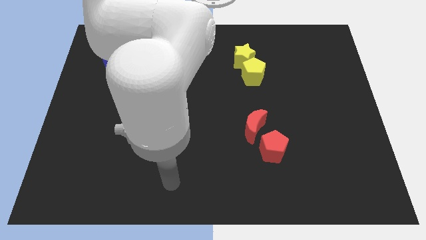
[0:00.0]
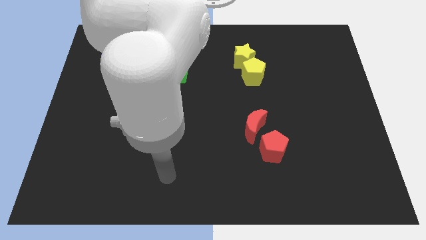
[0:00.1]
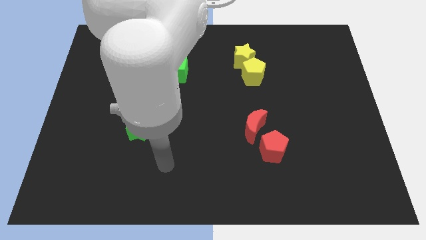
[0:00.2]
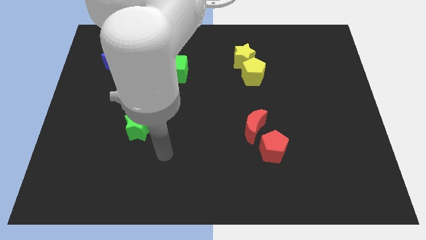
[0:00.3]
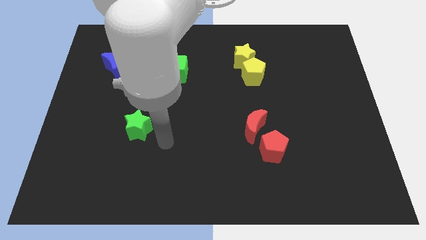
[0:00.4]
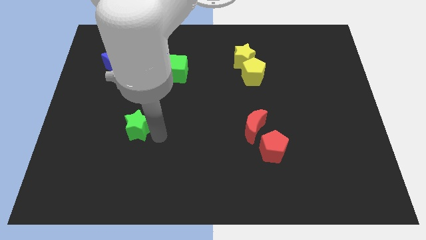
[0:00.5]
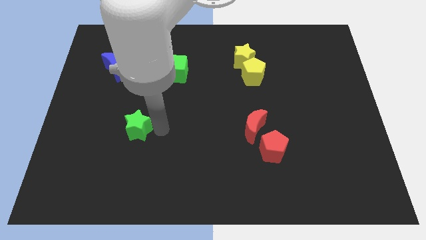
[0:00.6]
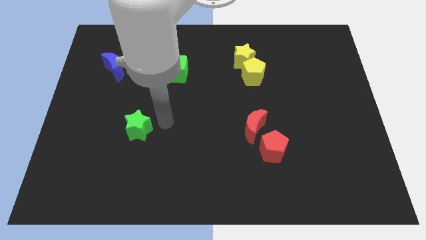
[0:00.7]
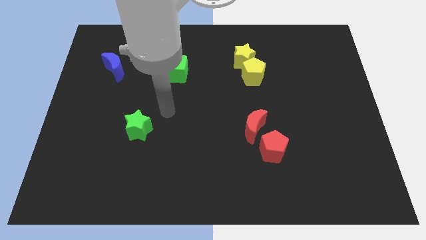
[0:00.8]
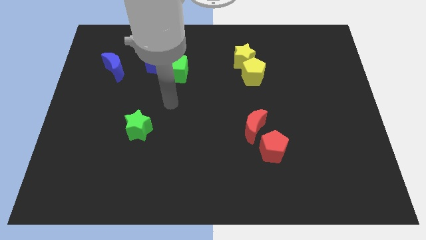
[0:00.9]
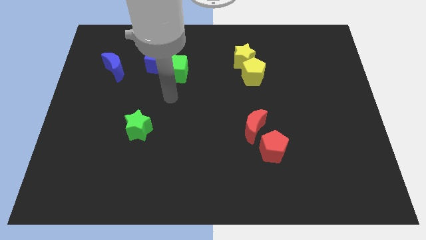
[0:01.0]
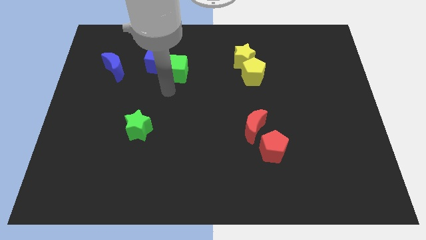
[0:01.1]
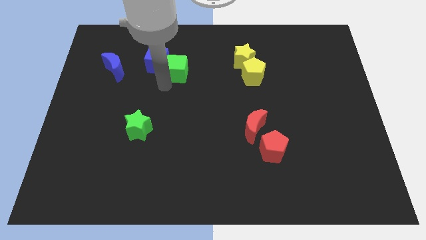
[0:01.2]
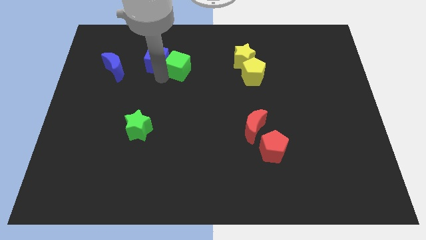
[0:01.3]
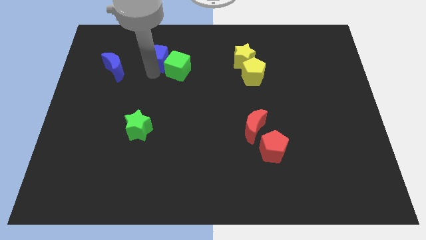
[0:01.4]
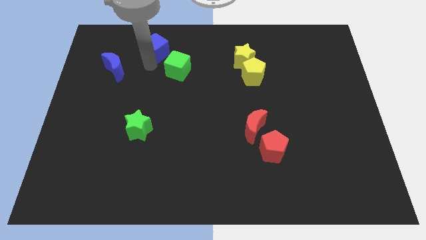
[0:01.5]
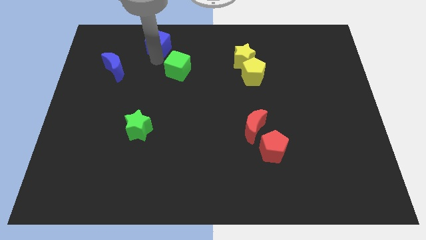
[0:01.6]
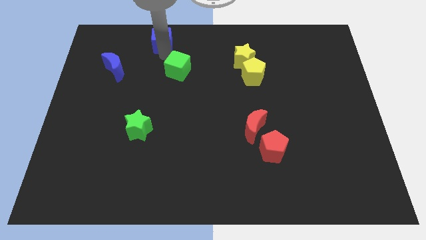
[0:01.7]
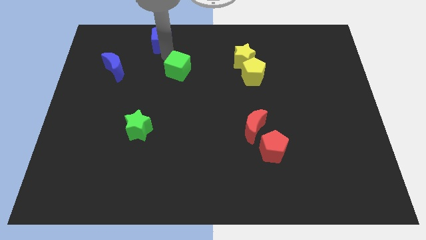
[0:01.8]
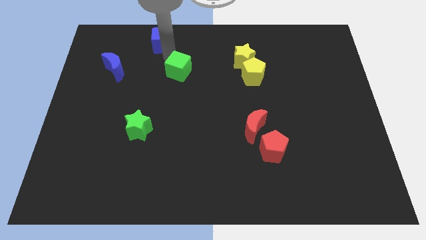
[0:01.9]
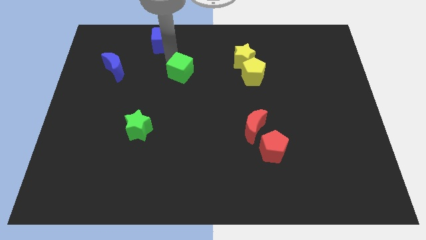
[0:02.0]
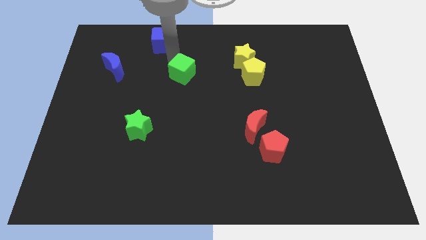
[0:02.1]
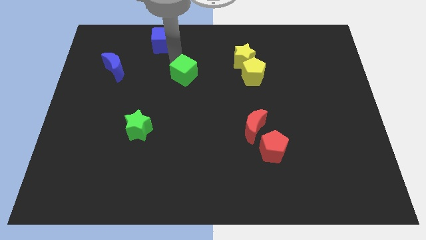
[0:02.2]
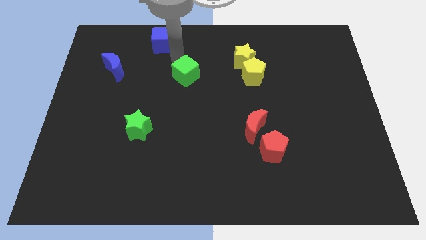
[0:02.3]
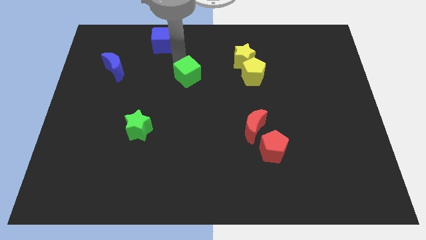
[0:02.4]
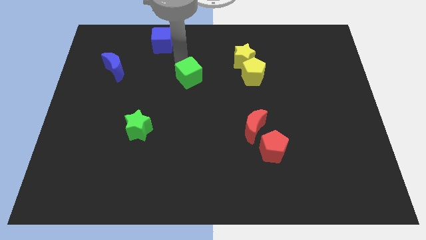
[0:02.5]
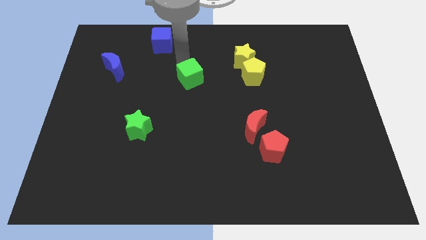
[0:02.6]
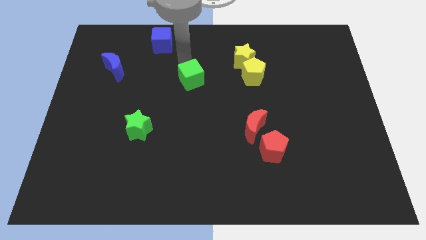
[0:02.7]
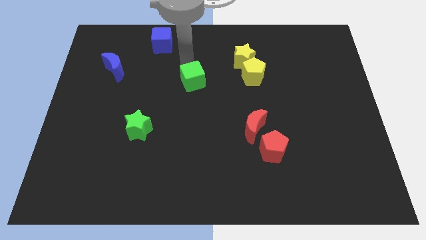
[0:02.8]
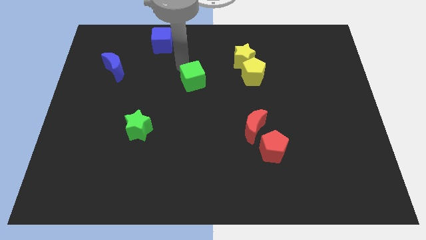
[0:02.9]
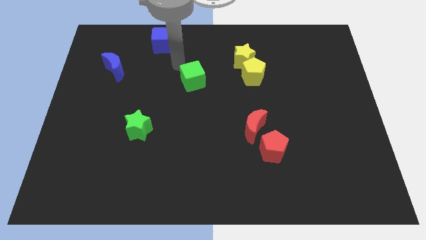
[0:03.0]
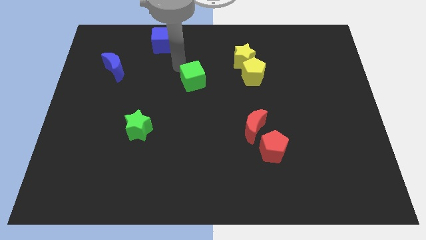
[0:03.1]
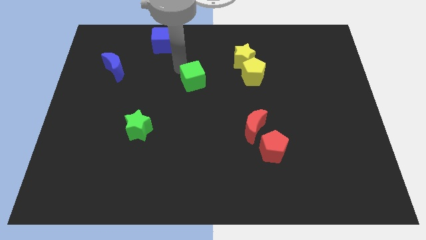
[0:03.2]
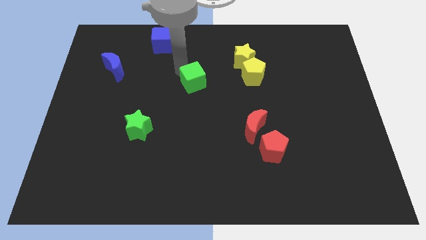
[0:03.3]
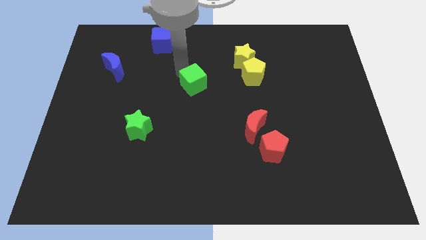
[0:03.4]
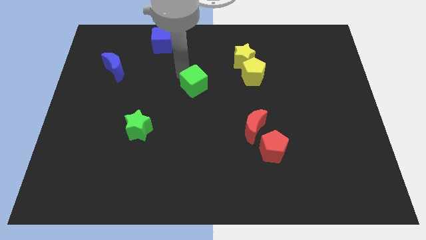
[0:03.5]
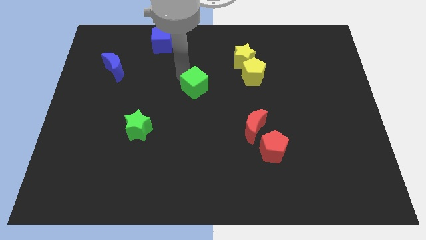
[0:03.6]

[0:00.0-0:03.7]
slightly move the green cube down and to the right

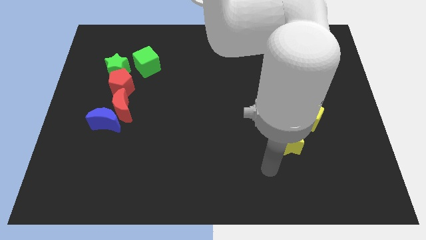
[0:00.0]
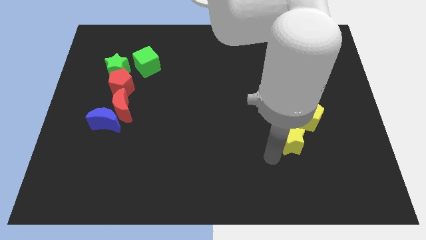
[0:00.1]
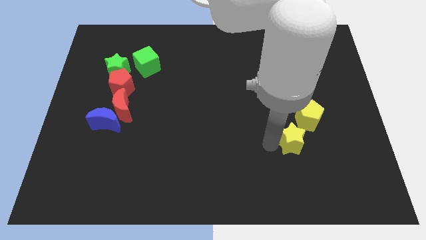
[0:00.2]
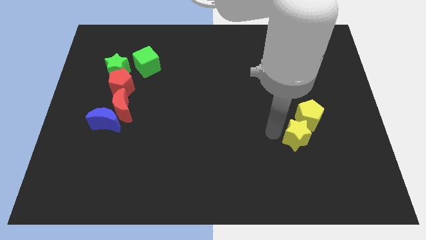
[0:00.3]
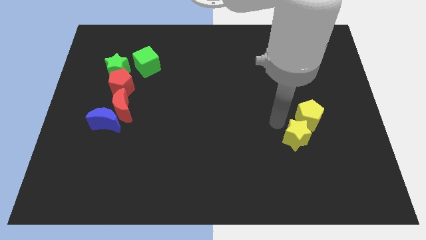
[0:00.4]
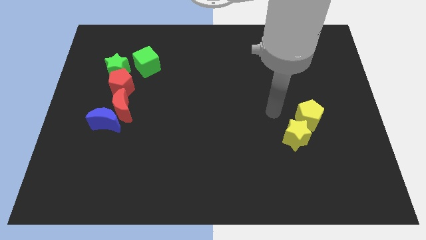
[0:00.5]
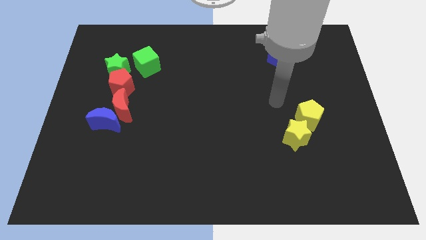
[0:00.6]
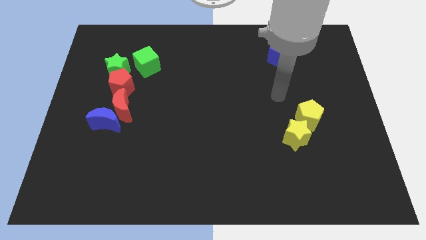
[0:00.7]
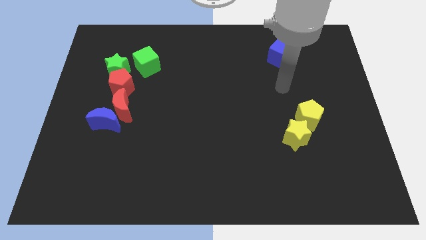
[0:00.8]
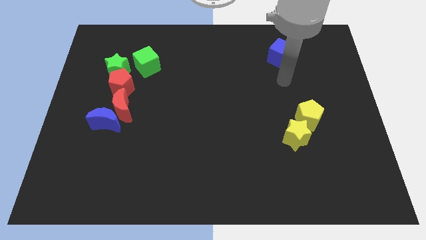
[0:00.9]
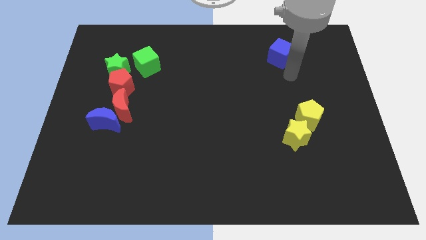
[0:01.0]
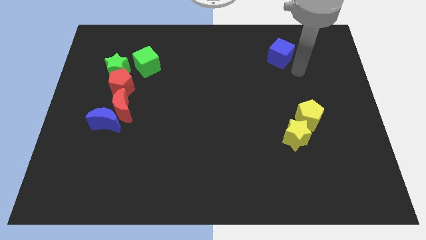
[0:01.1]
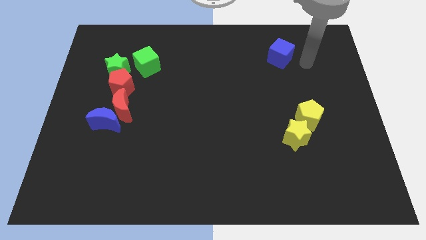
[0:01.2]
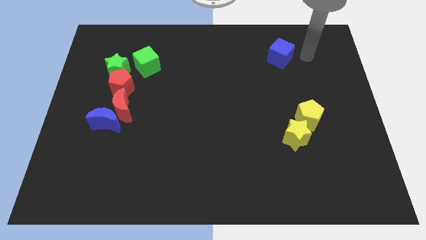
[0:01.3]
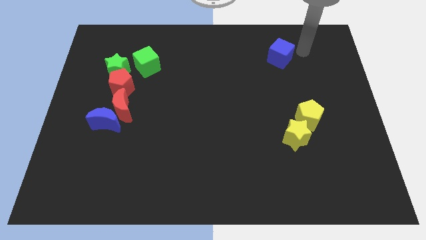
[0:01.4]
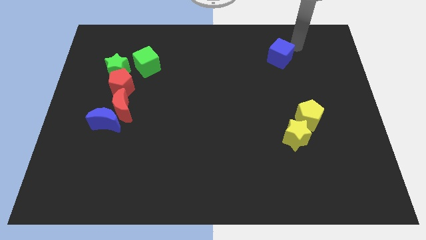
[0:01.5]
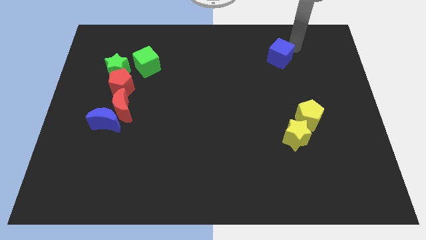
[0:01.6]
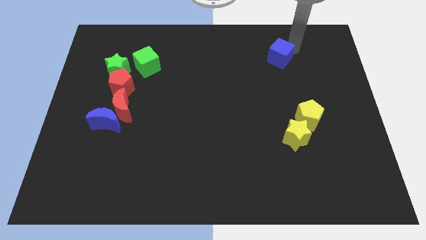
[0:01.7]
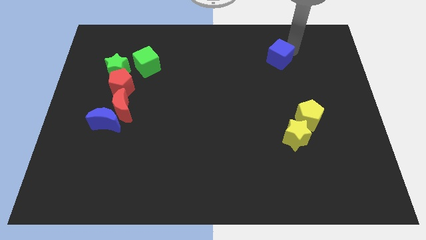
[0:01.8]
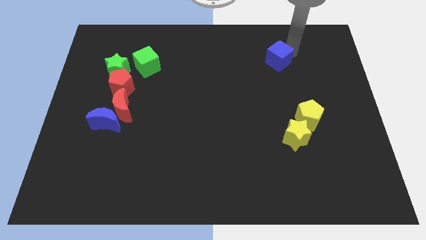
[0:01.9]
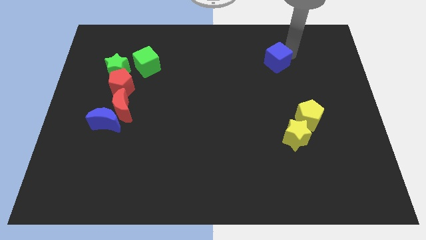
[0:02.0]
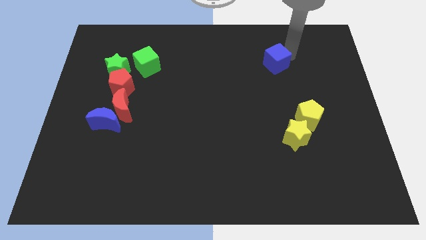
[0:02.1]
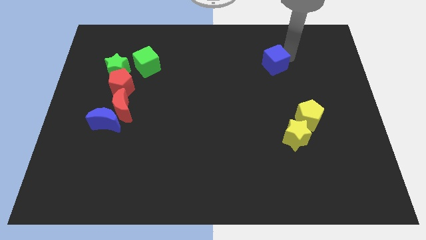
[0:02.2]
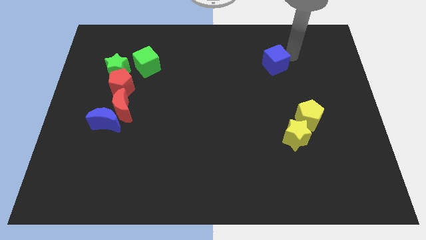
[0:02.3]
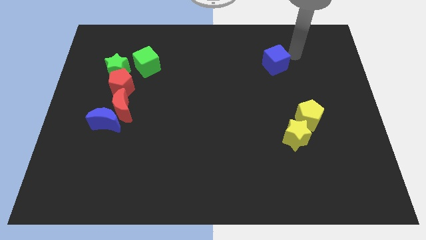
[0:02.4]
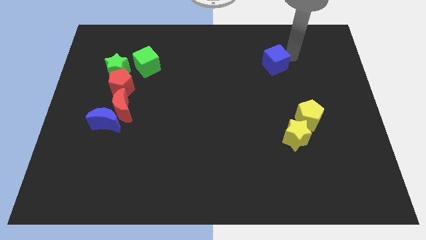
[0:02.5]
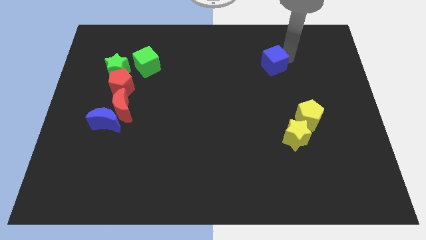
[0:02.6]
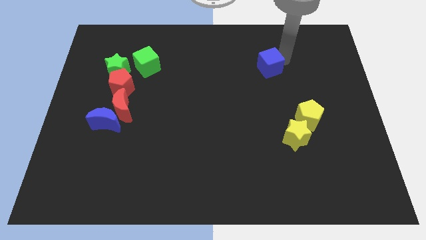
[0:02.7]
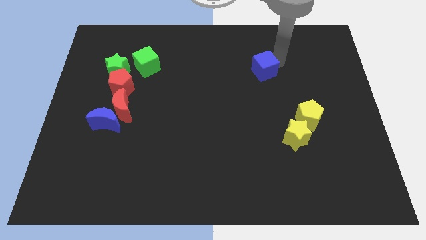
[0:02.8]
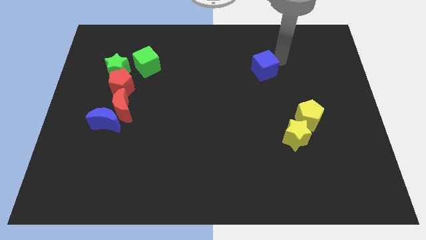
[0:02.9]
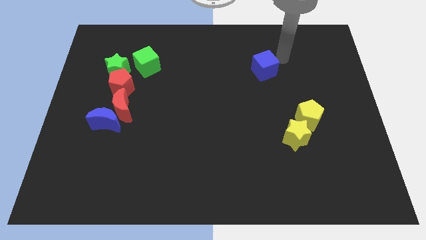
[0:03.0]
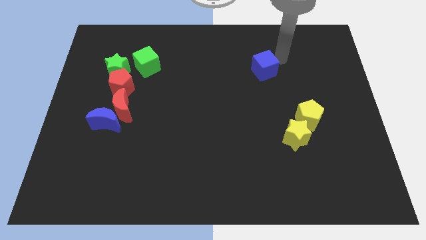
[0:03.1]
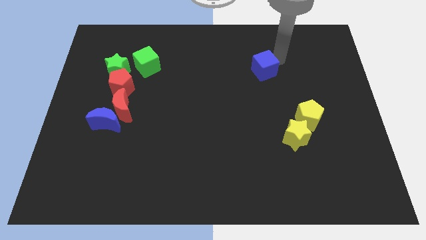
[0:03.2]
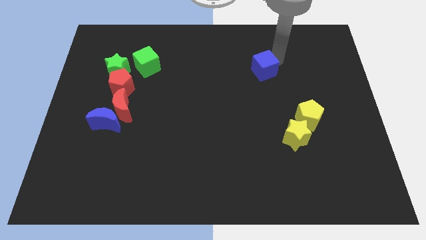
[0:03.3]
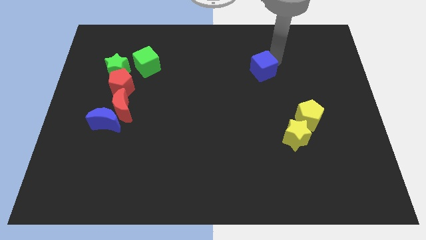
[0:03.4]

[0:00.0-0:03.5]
slide the blue cube a little diagonally down and to the left

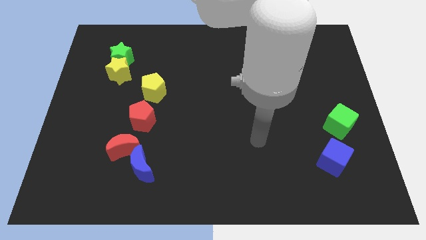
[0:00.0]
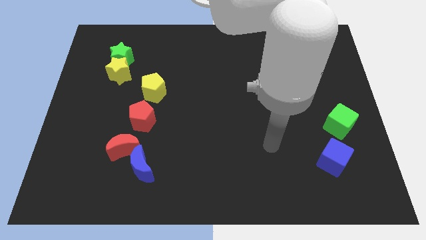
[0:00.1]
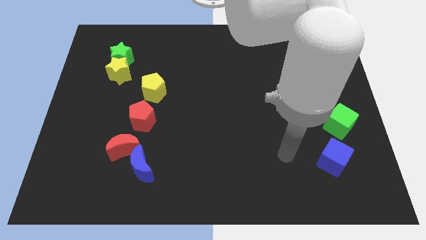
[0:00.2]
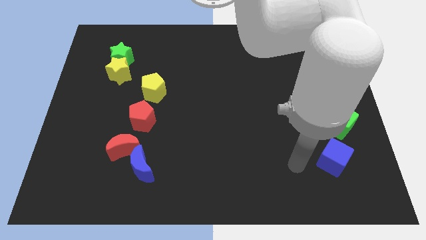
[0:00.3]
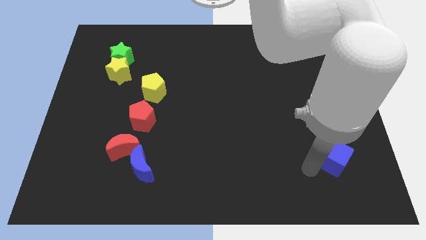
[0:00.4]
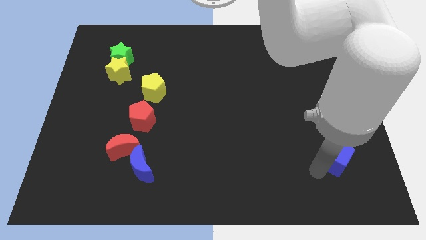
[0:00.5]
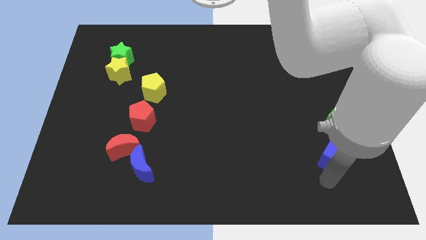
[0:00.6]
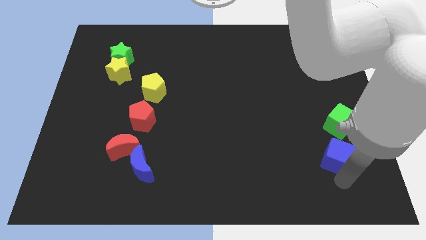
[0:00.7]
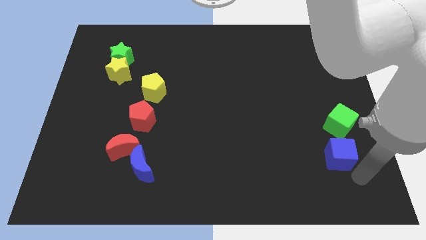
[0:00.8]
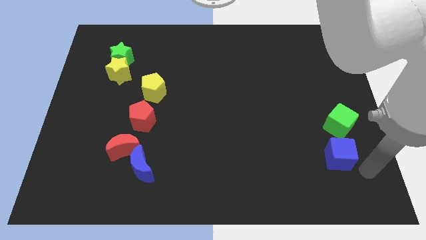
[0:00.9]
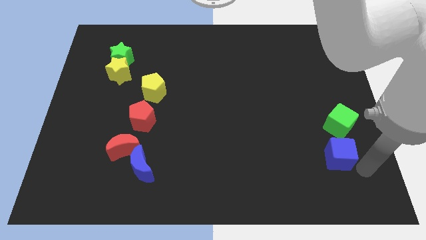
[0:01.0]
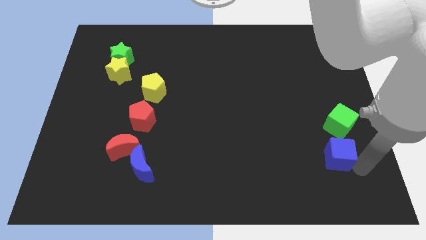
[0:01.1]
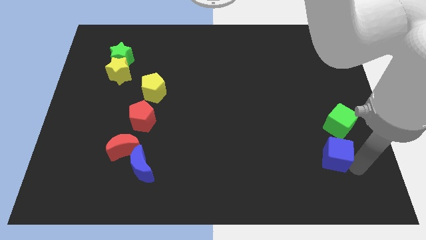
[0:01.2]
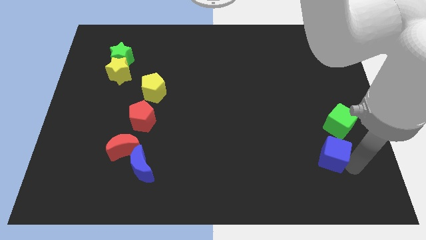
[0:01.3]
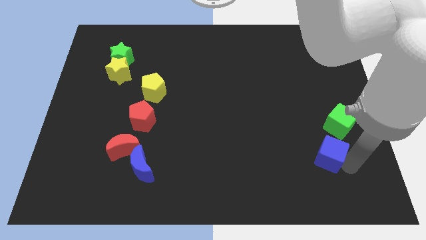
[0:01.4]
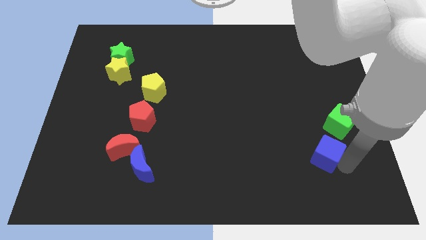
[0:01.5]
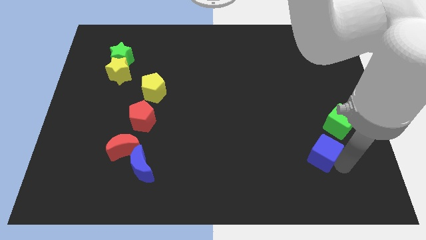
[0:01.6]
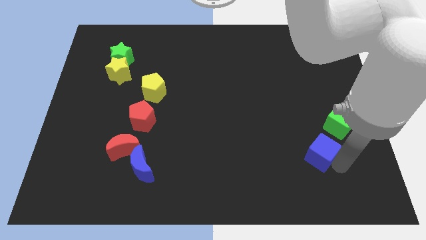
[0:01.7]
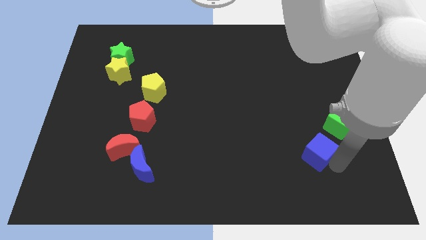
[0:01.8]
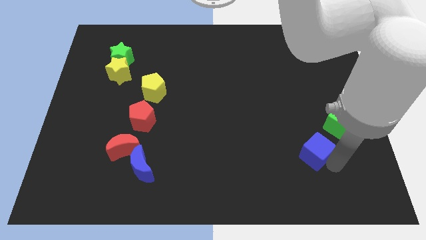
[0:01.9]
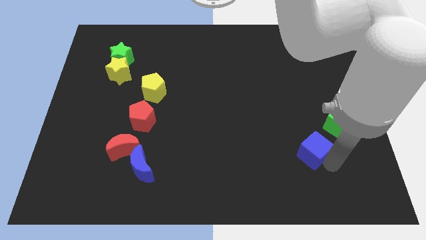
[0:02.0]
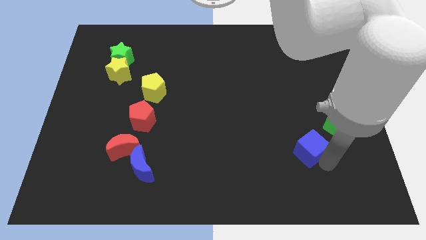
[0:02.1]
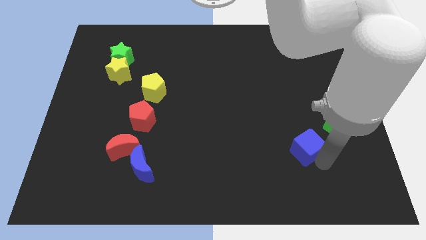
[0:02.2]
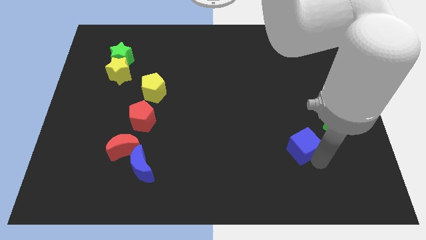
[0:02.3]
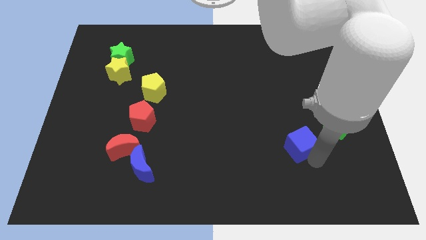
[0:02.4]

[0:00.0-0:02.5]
move the blue cube somewhat diagonally up and left
